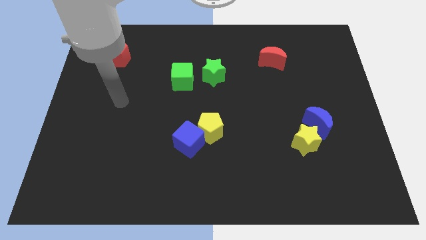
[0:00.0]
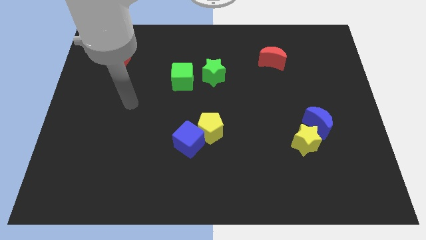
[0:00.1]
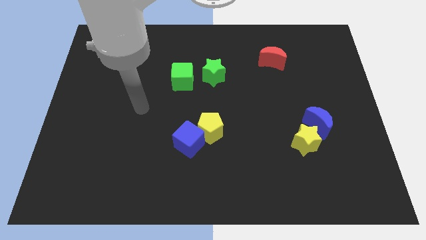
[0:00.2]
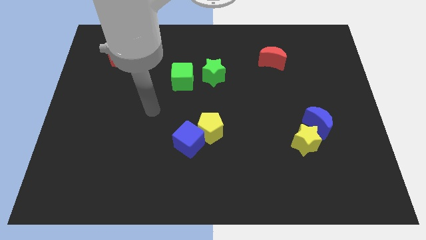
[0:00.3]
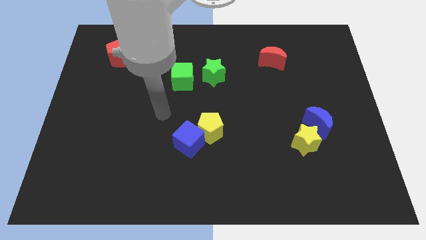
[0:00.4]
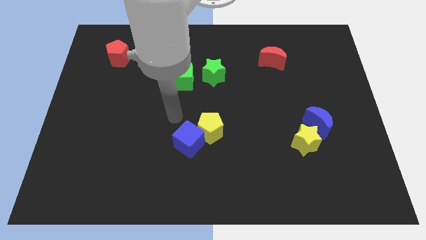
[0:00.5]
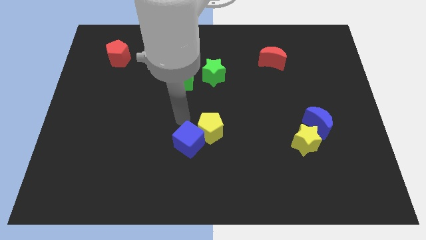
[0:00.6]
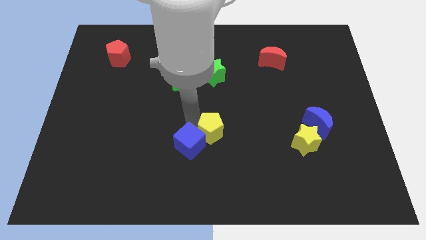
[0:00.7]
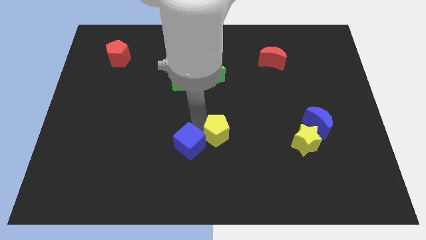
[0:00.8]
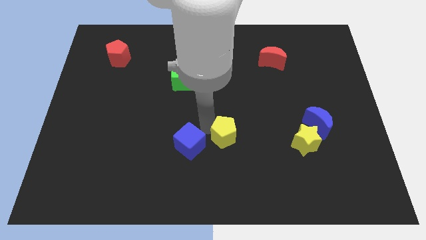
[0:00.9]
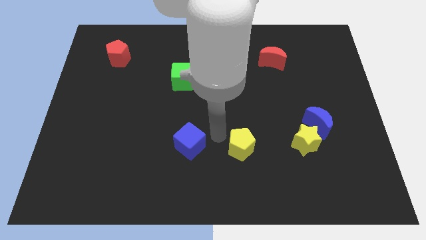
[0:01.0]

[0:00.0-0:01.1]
pull the blue cube apart from the yellow pentagon

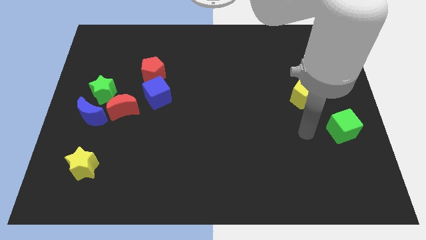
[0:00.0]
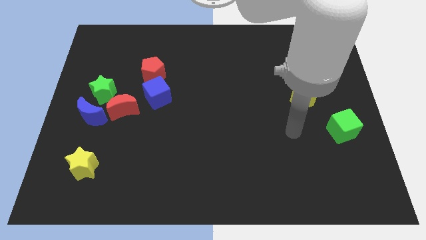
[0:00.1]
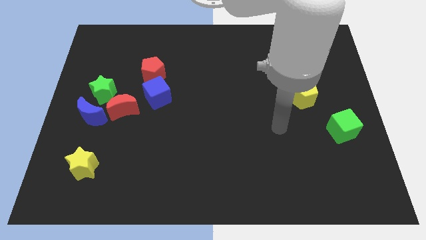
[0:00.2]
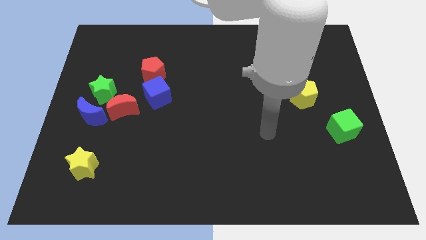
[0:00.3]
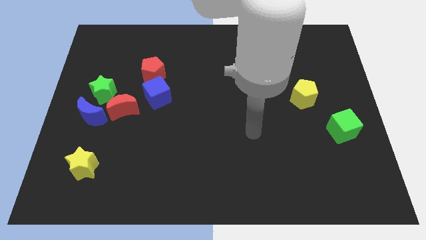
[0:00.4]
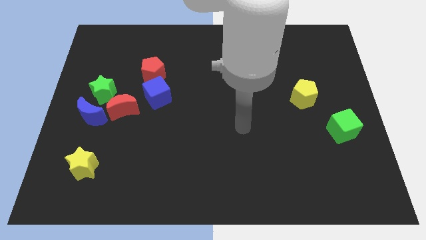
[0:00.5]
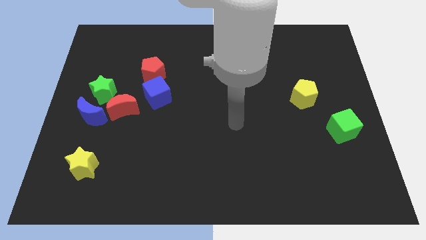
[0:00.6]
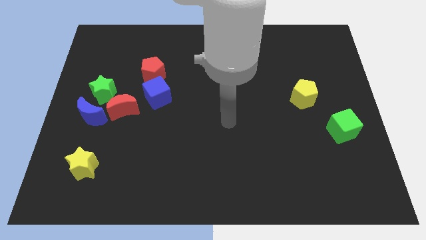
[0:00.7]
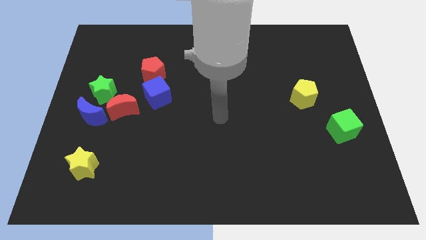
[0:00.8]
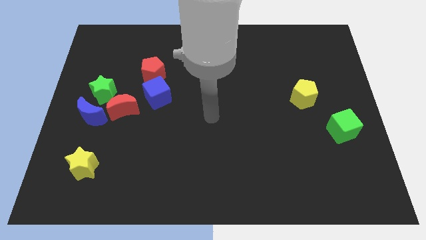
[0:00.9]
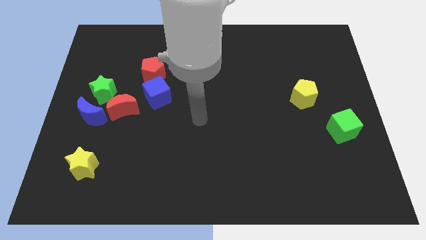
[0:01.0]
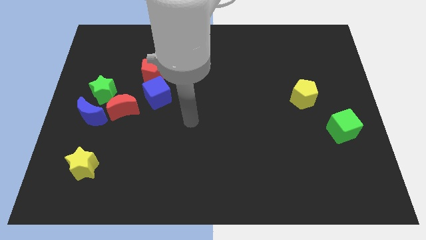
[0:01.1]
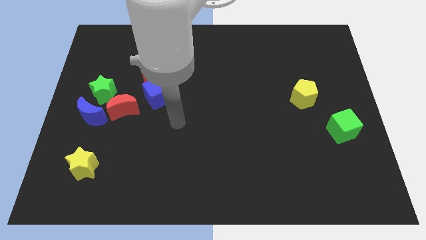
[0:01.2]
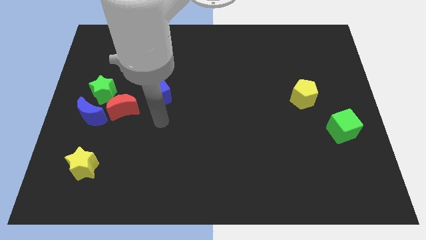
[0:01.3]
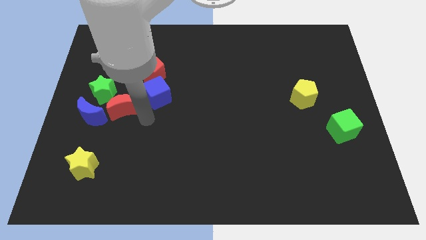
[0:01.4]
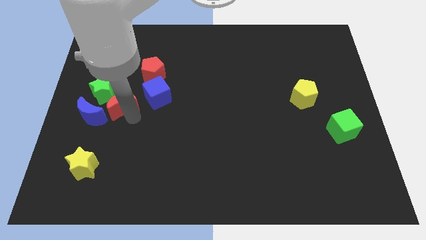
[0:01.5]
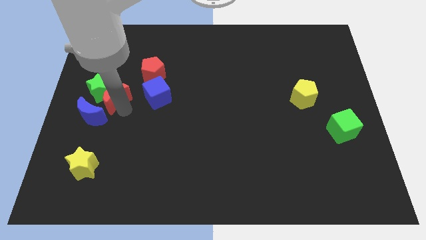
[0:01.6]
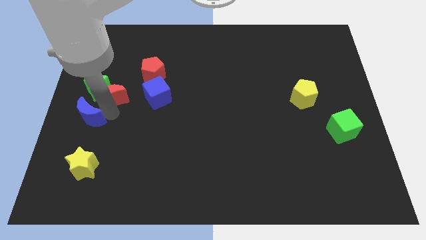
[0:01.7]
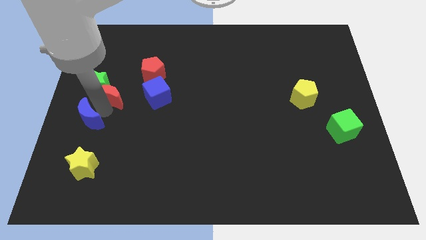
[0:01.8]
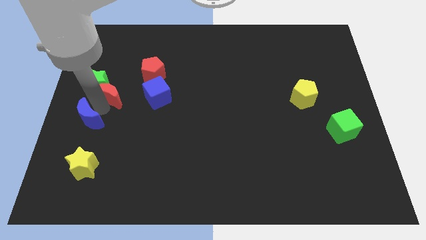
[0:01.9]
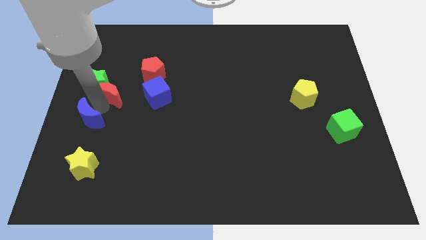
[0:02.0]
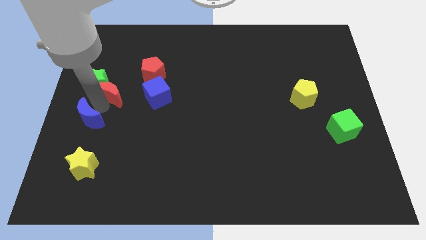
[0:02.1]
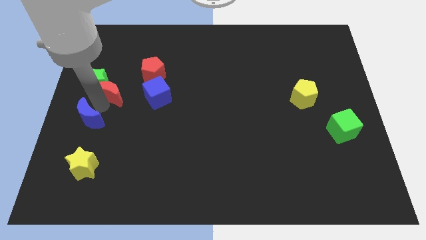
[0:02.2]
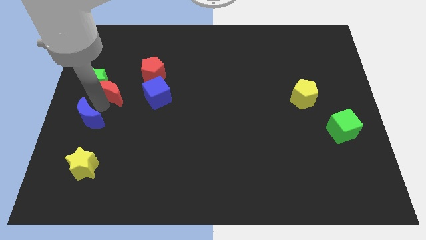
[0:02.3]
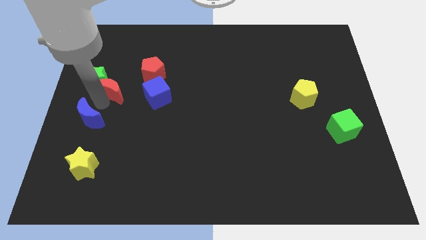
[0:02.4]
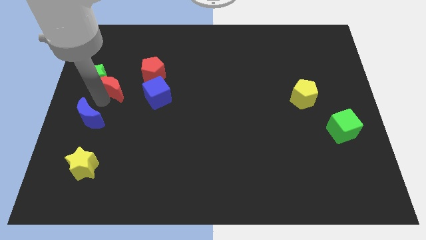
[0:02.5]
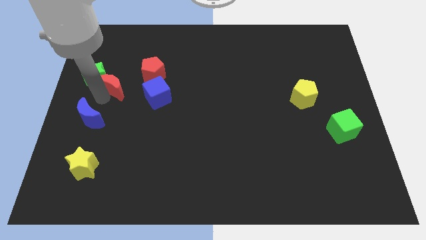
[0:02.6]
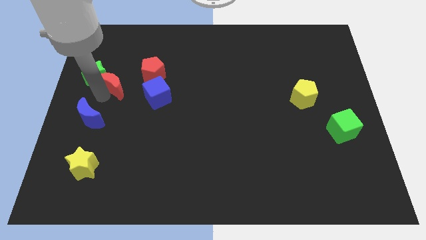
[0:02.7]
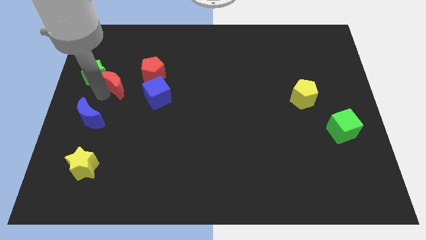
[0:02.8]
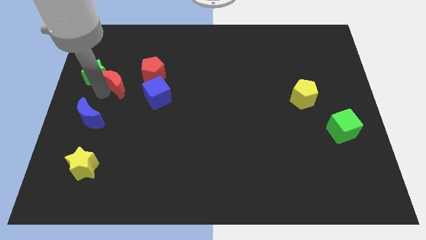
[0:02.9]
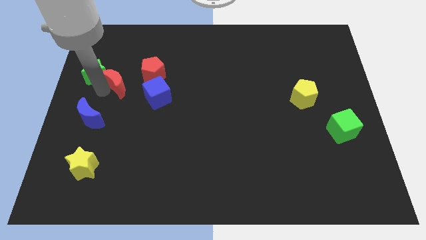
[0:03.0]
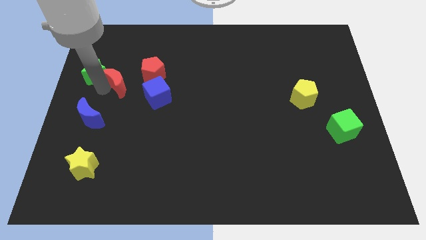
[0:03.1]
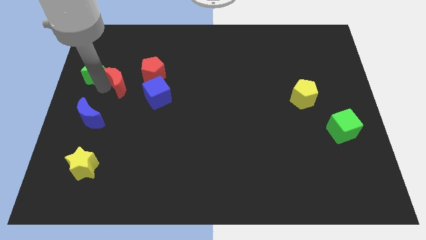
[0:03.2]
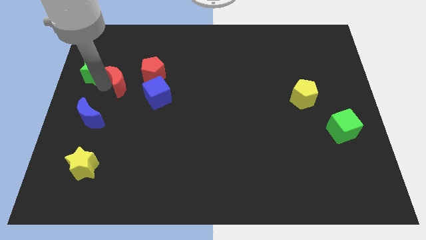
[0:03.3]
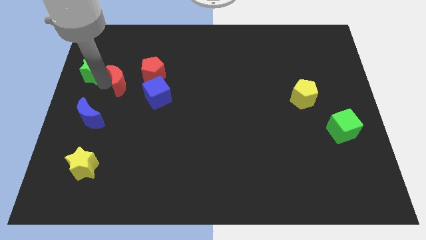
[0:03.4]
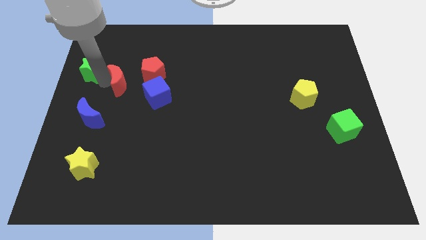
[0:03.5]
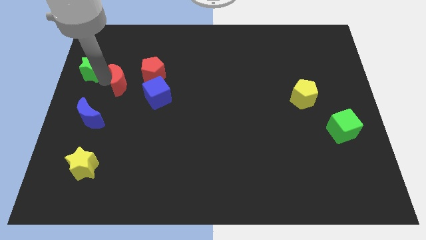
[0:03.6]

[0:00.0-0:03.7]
pull the green star apart from the blue moon and red moon

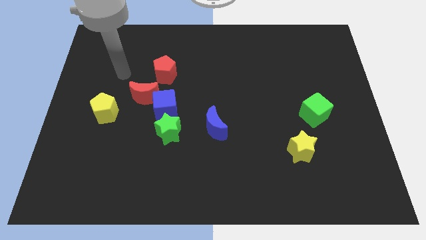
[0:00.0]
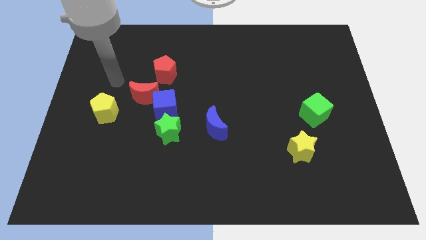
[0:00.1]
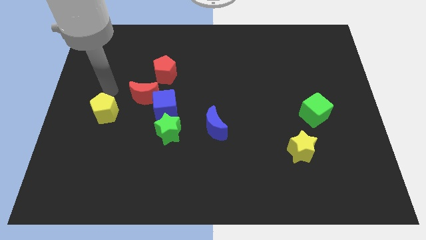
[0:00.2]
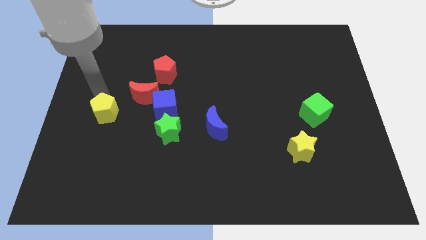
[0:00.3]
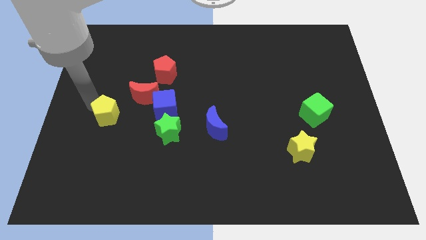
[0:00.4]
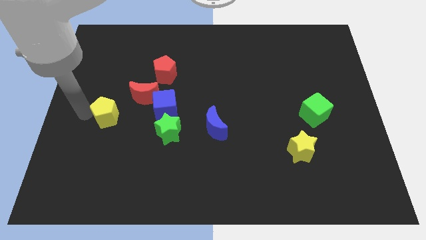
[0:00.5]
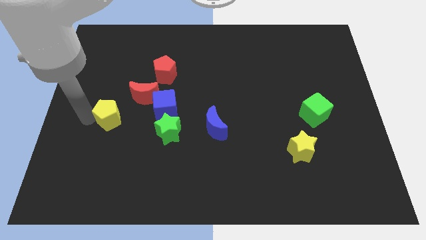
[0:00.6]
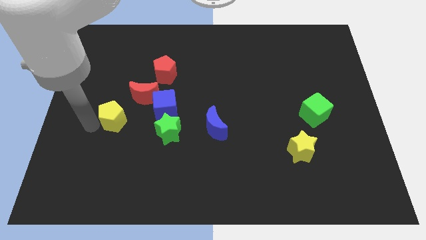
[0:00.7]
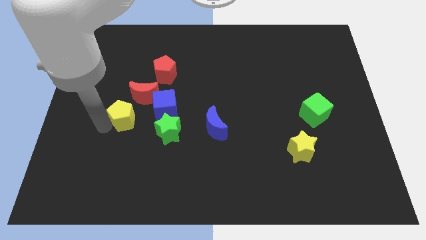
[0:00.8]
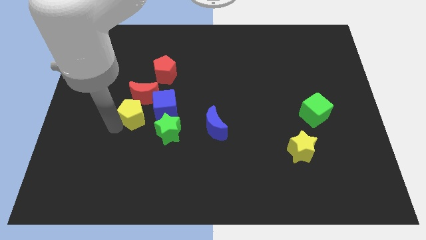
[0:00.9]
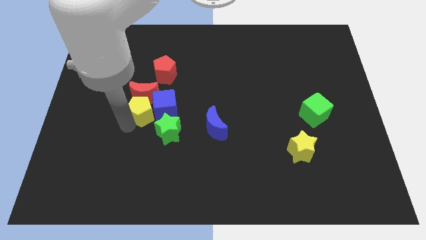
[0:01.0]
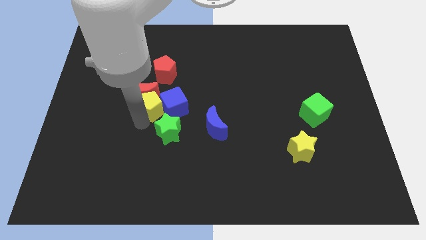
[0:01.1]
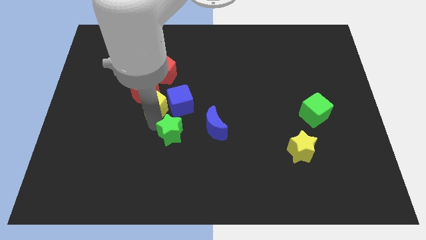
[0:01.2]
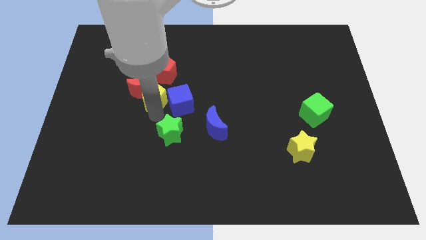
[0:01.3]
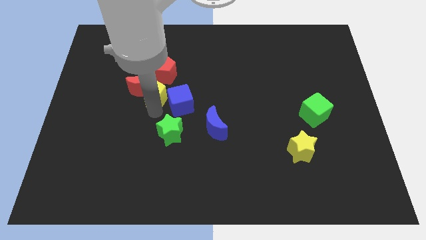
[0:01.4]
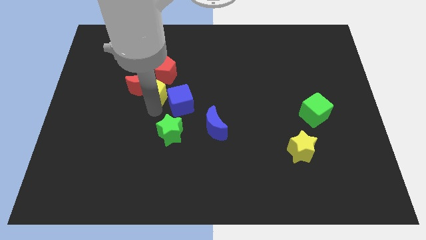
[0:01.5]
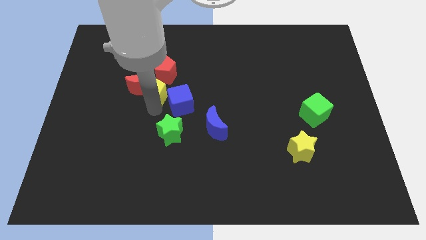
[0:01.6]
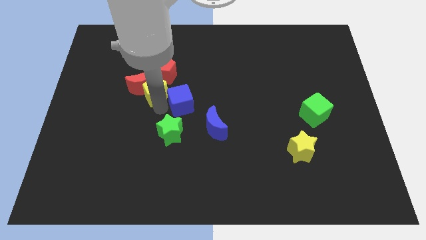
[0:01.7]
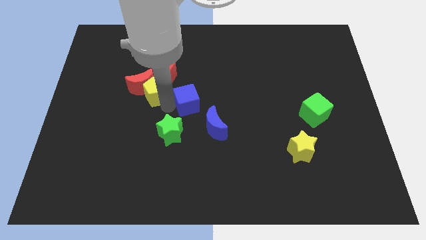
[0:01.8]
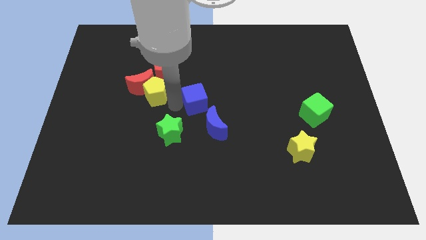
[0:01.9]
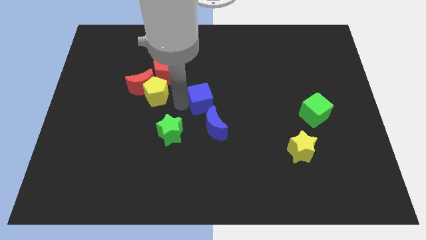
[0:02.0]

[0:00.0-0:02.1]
move the blue cube away from the red moon and green star

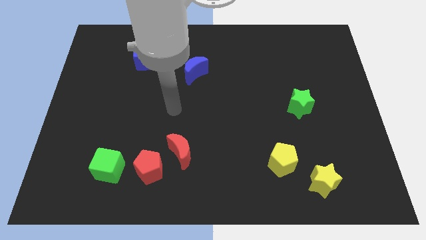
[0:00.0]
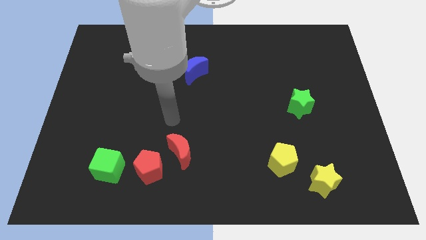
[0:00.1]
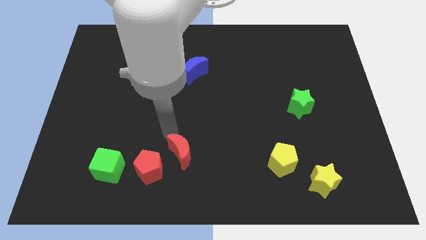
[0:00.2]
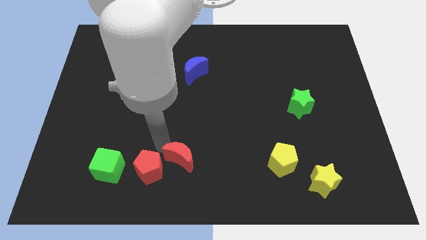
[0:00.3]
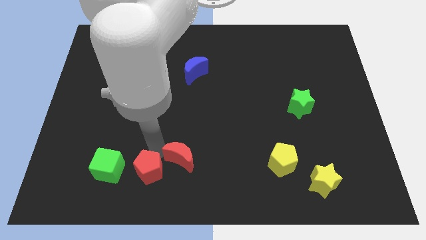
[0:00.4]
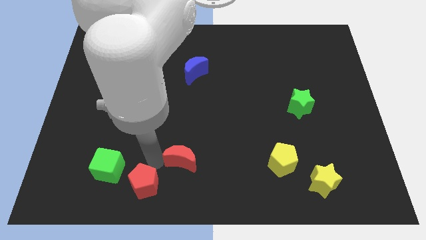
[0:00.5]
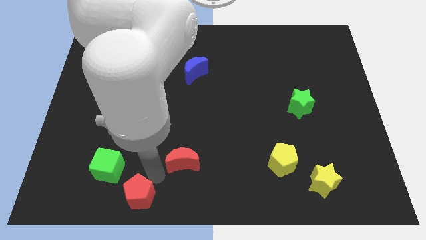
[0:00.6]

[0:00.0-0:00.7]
move the red moon away from the red pentagon

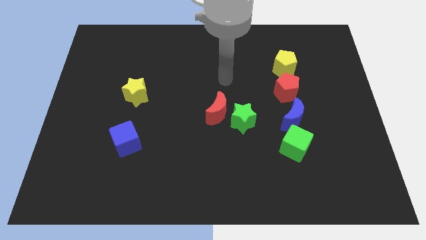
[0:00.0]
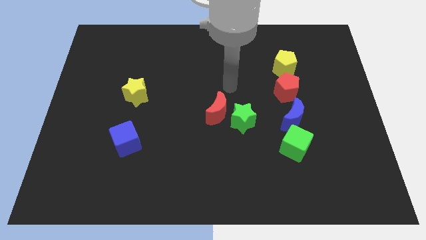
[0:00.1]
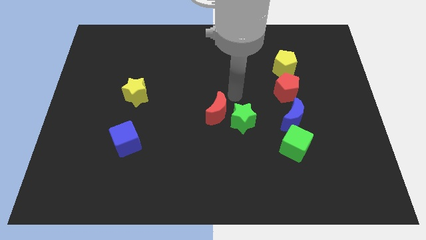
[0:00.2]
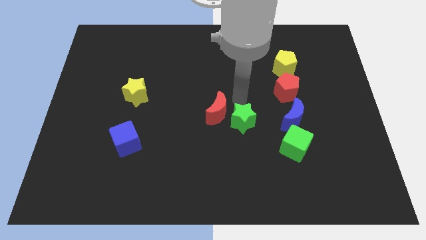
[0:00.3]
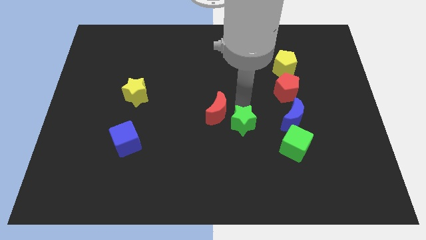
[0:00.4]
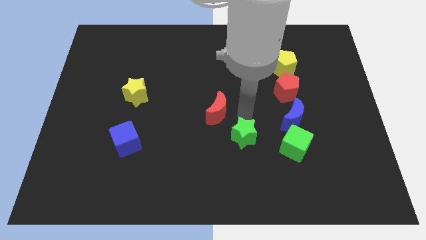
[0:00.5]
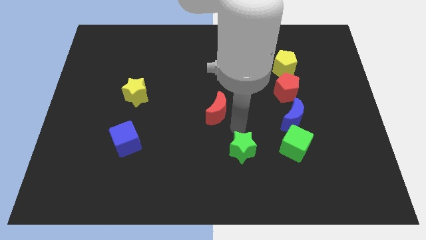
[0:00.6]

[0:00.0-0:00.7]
separate the red moon from the green star

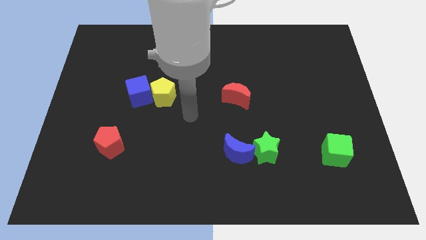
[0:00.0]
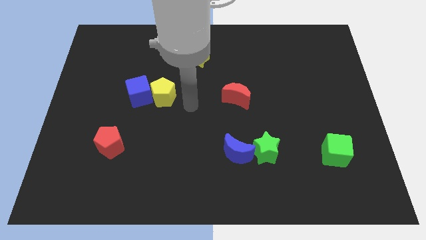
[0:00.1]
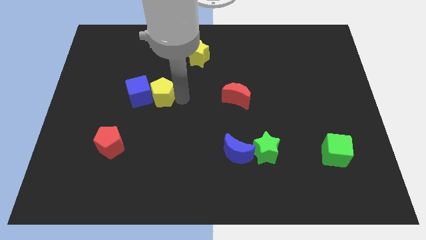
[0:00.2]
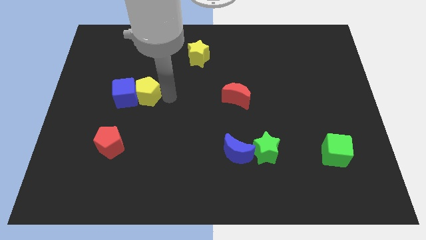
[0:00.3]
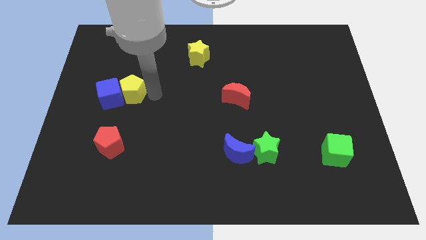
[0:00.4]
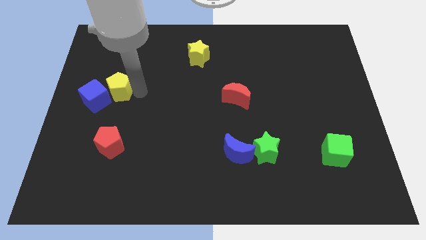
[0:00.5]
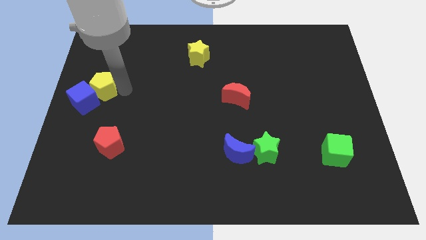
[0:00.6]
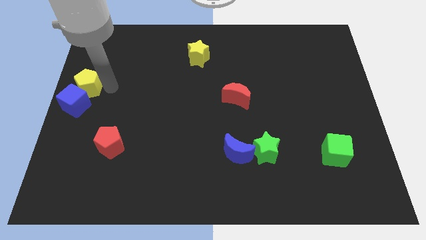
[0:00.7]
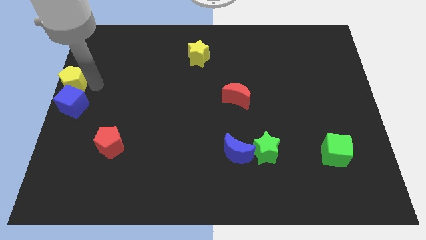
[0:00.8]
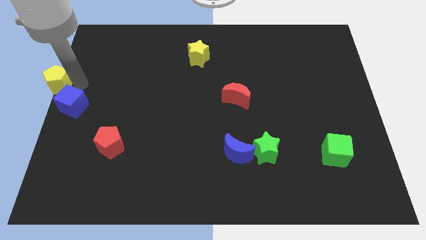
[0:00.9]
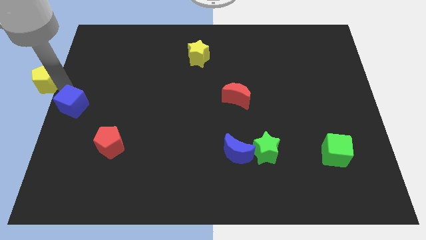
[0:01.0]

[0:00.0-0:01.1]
separate the blue cube from the yellow pentagon
